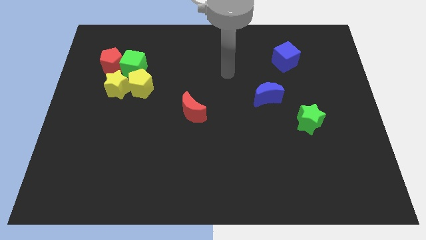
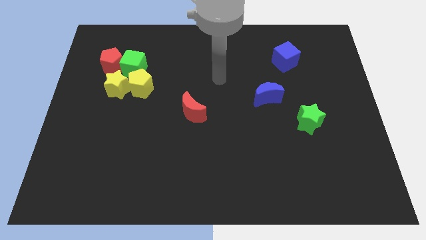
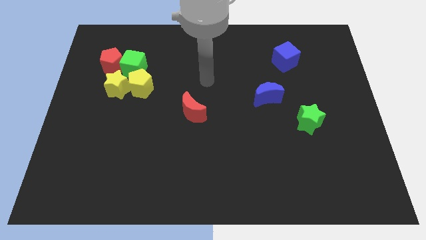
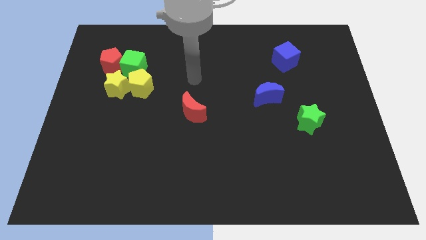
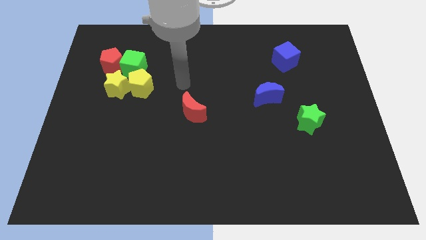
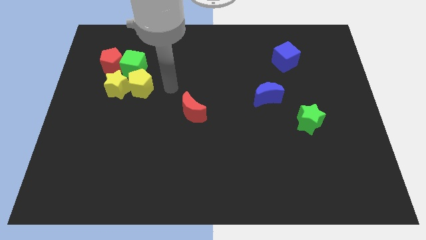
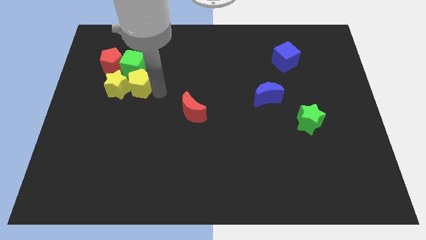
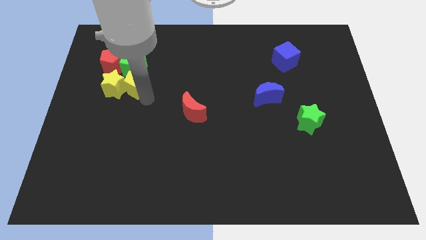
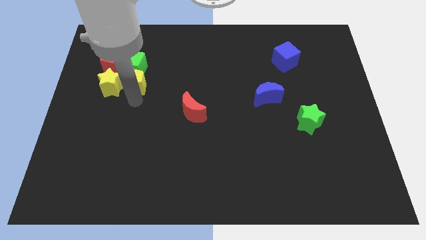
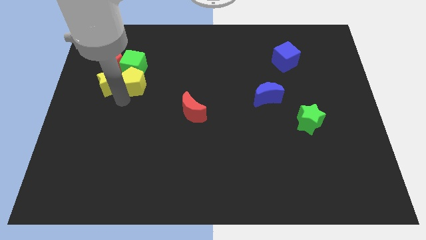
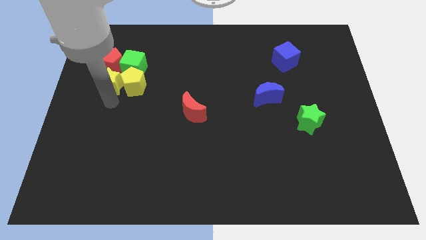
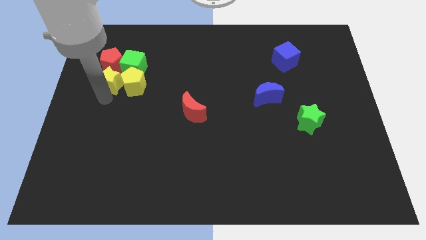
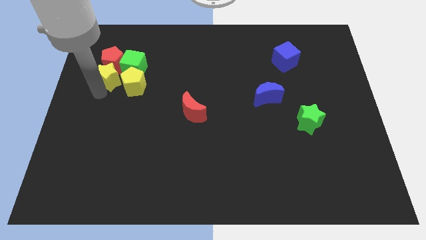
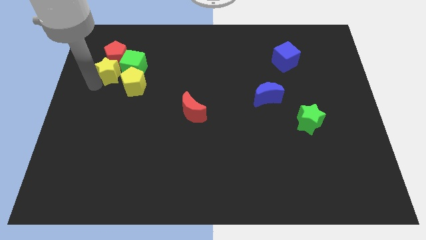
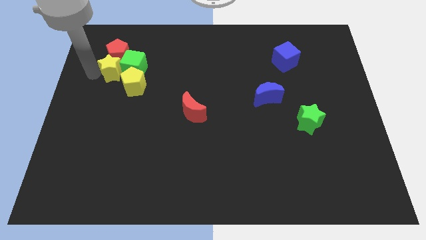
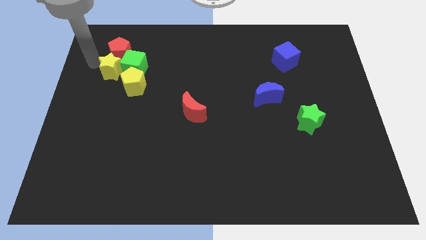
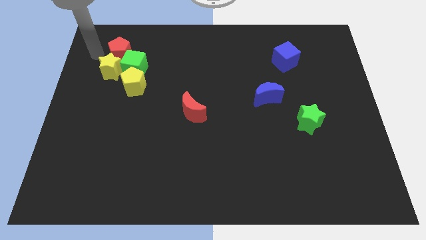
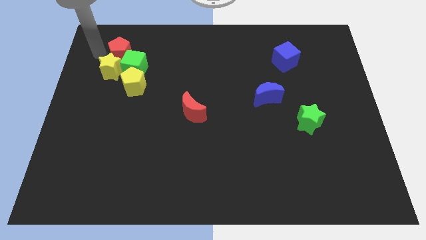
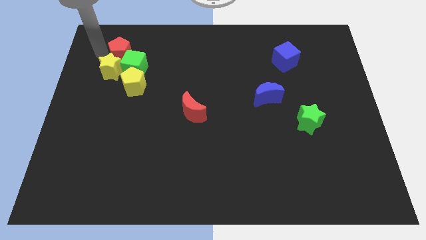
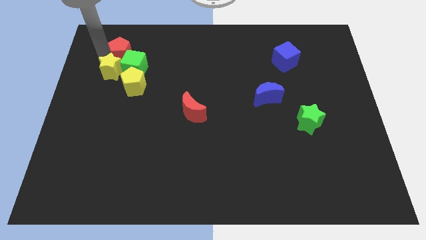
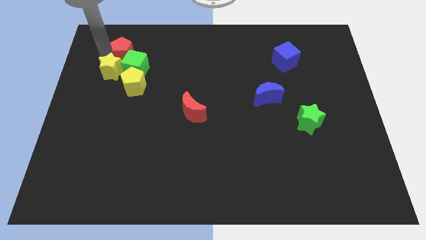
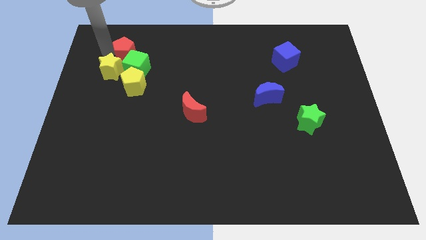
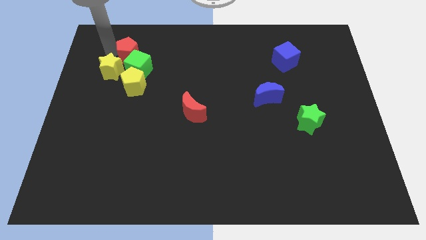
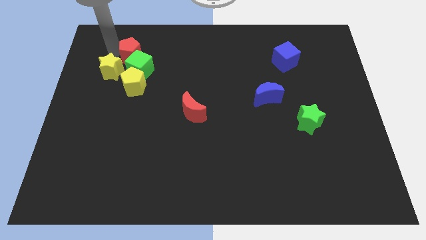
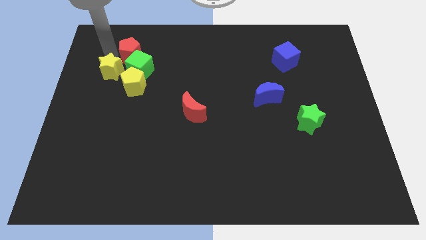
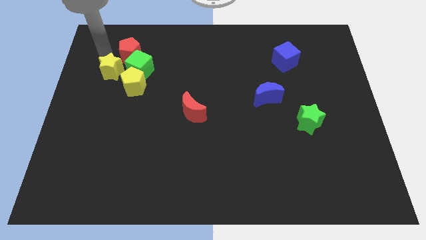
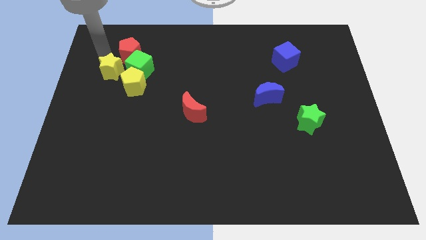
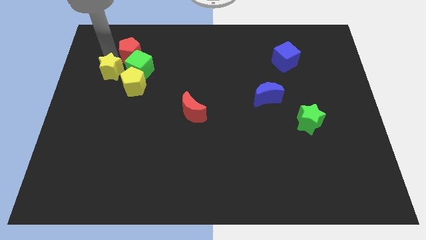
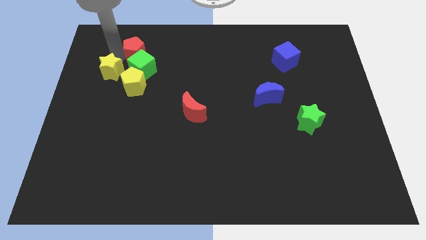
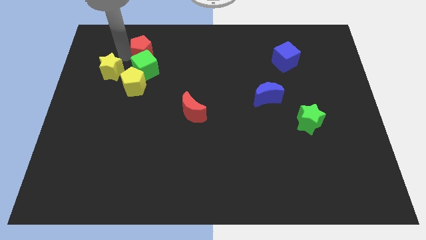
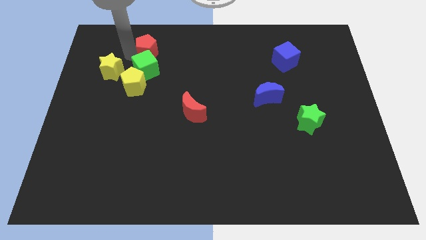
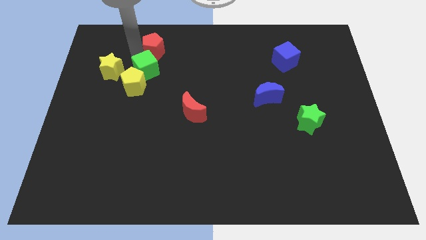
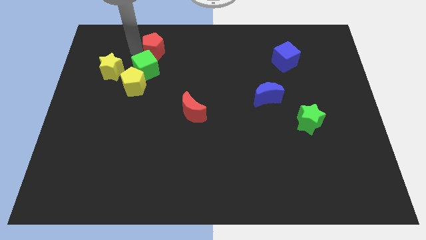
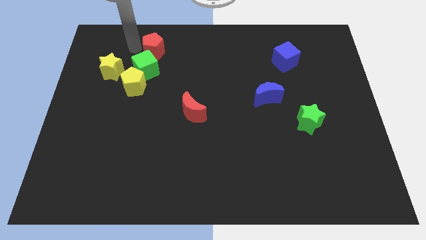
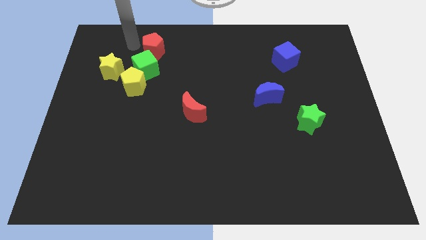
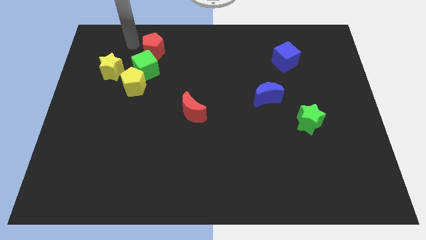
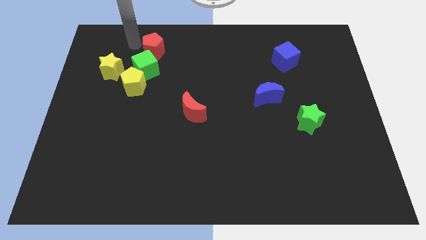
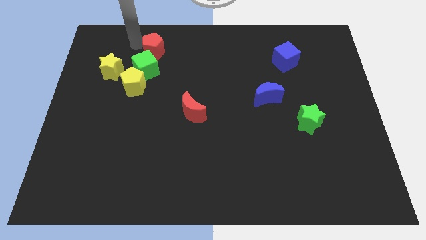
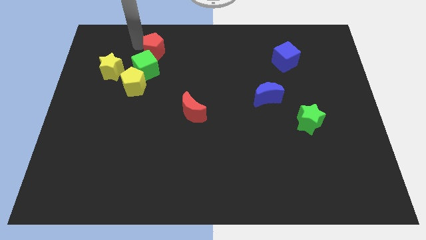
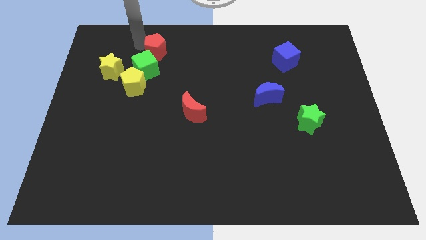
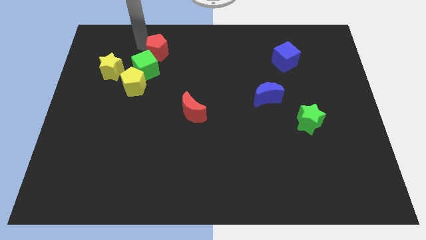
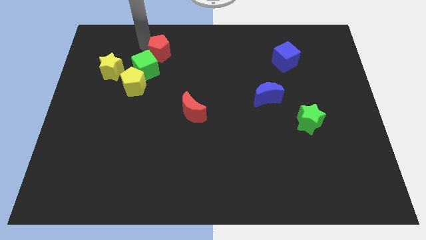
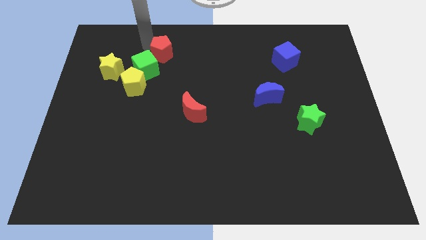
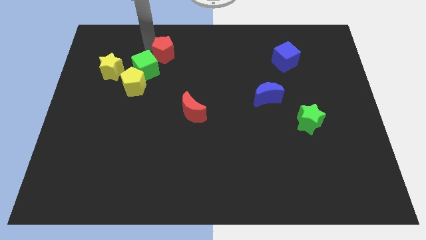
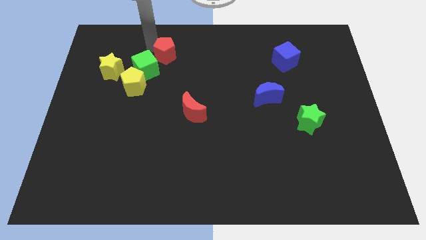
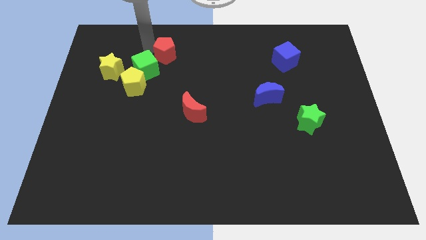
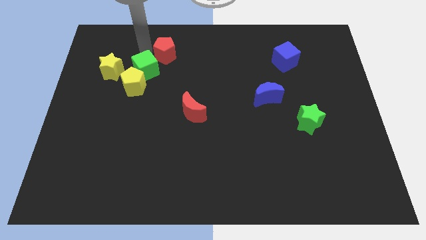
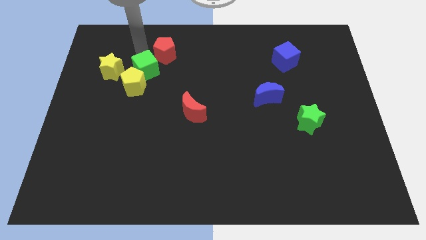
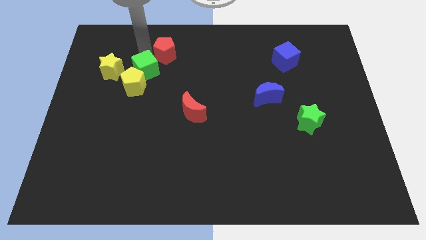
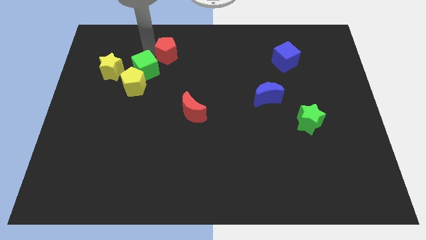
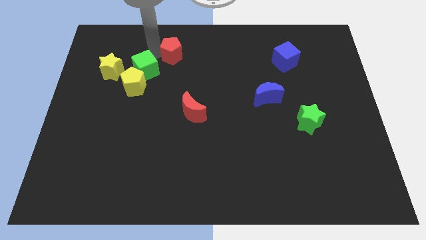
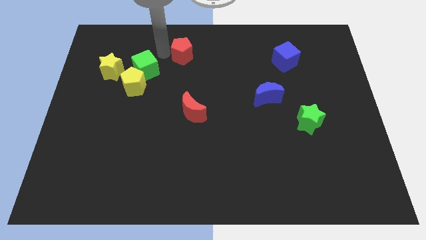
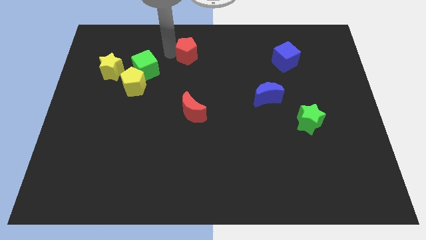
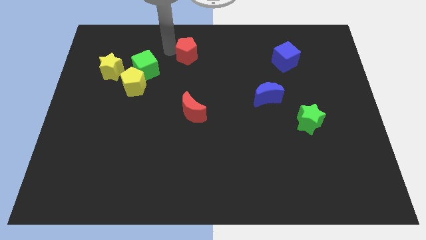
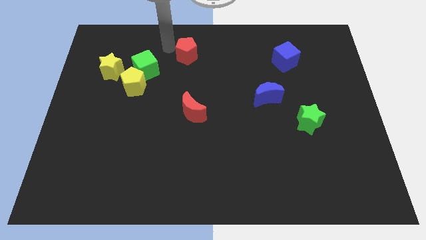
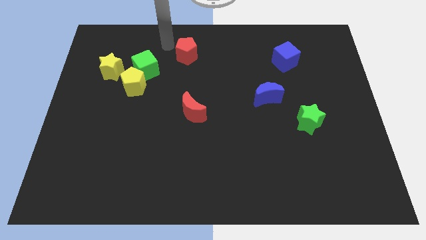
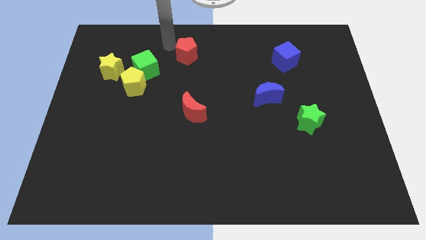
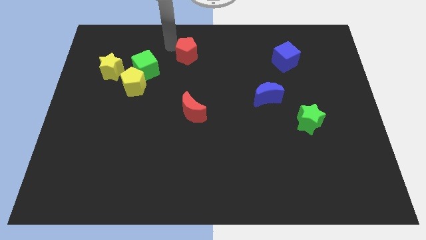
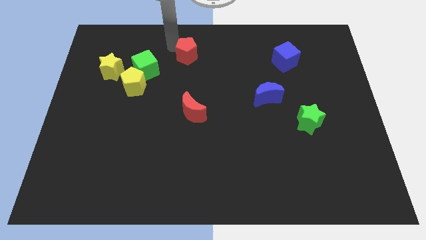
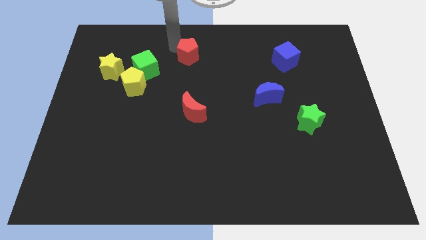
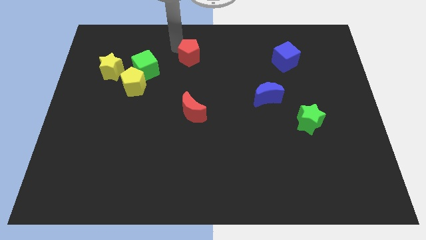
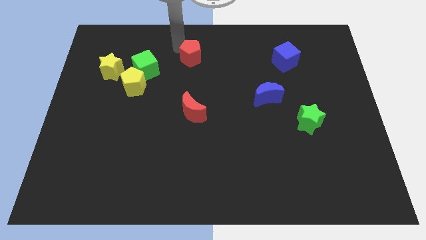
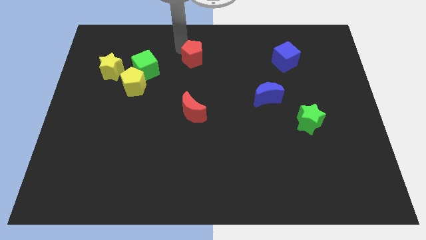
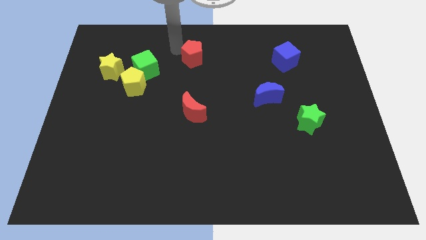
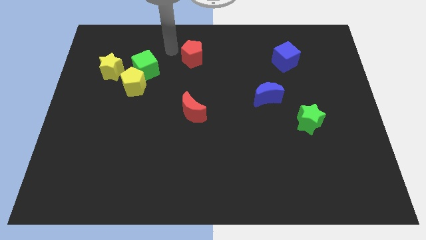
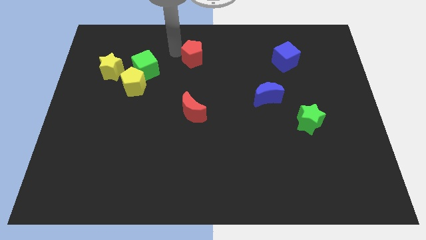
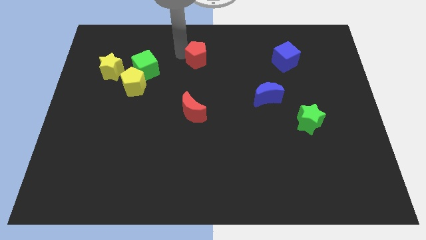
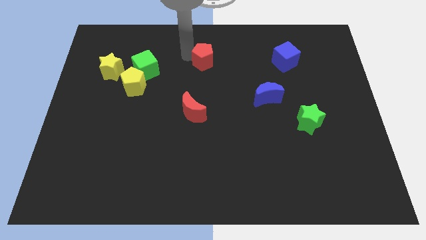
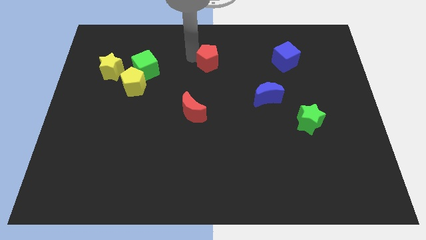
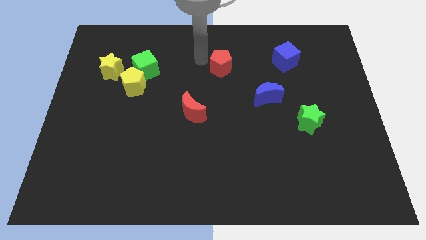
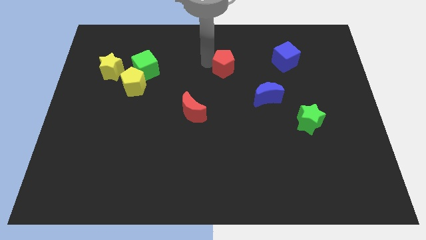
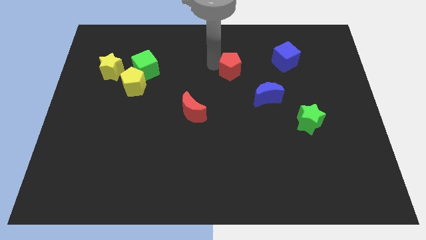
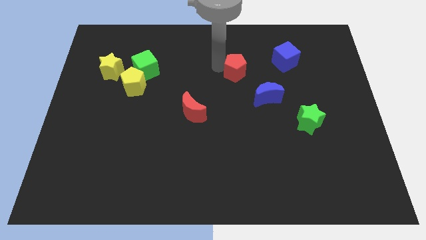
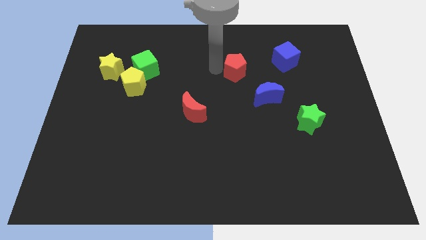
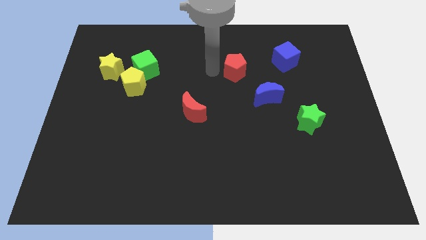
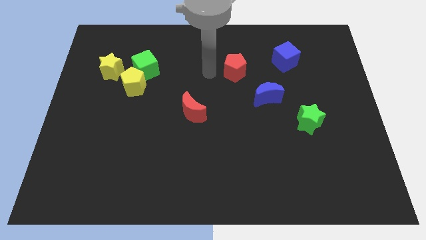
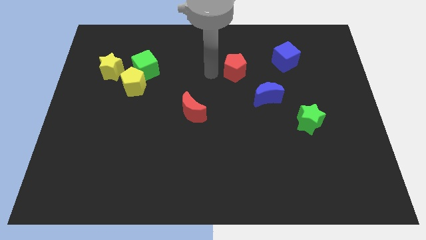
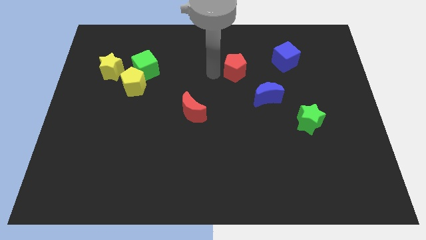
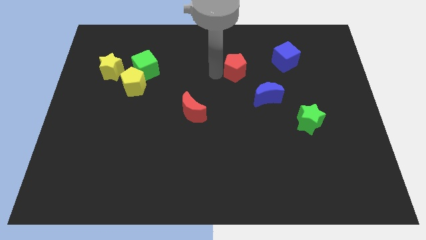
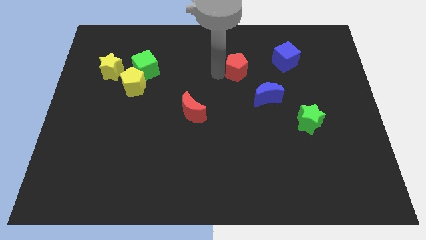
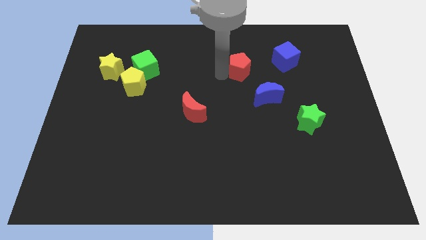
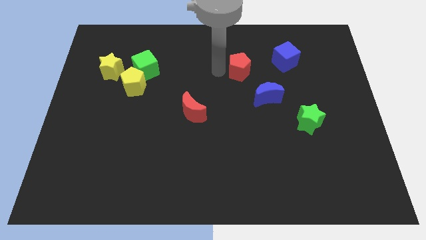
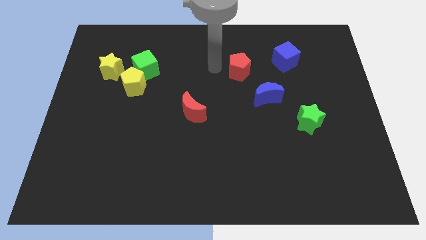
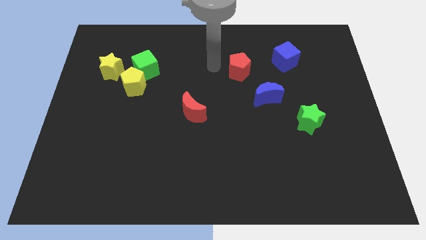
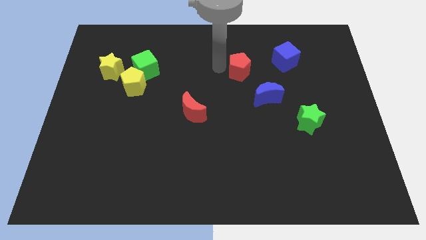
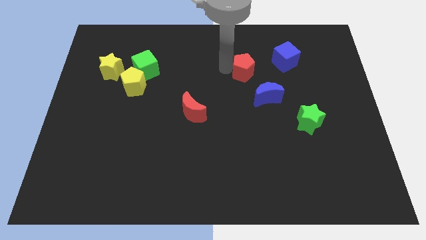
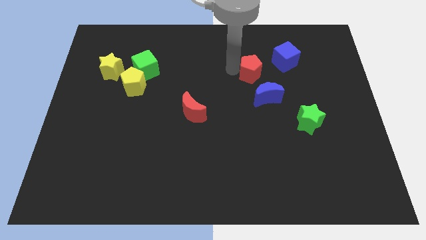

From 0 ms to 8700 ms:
move the red pentagon diagonally down and to the left of the blue cube
